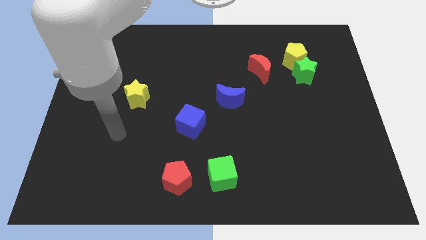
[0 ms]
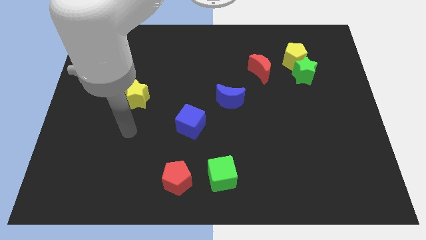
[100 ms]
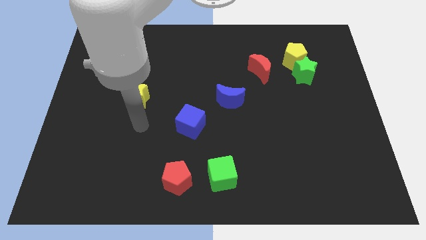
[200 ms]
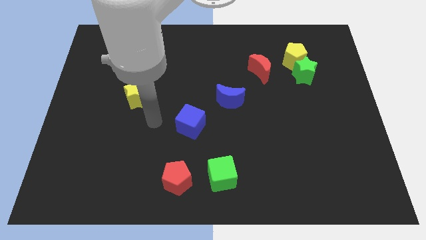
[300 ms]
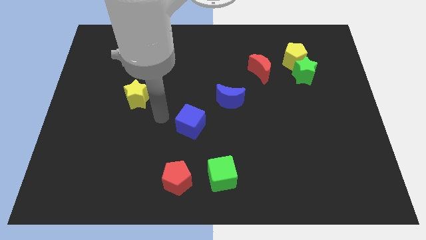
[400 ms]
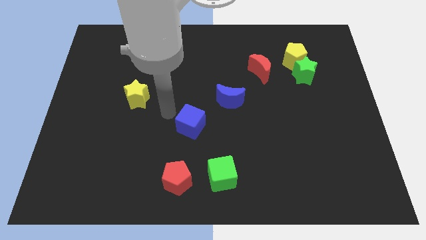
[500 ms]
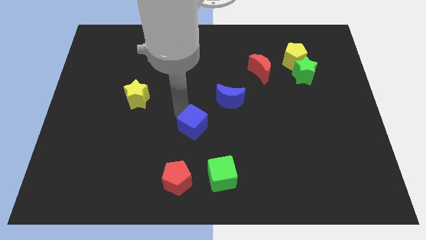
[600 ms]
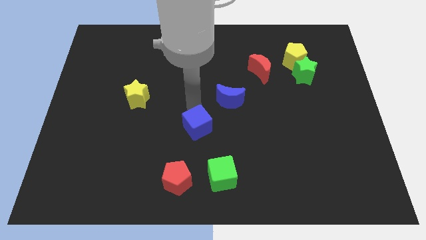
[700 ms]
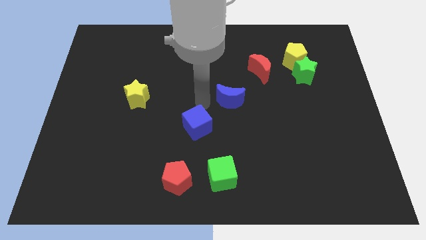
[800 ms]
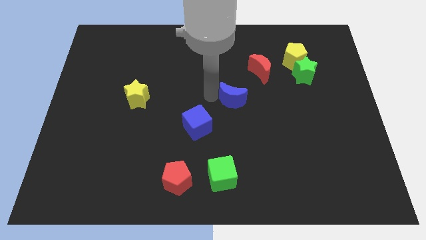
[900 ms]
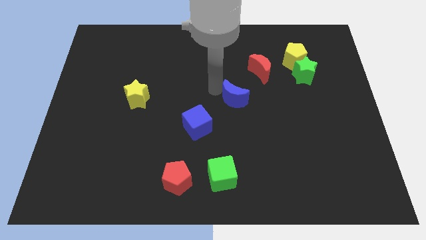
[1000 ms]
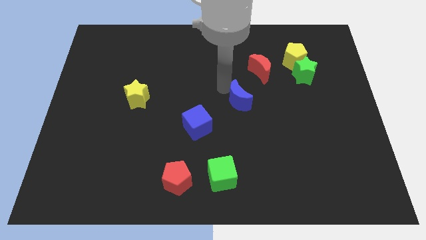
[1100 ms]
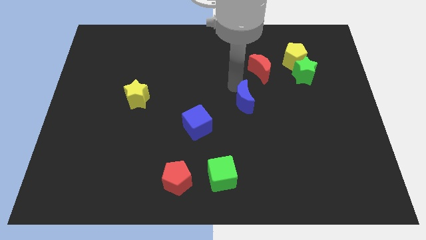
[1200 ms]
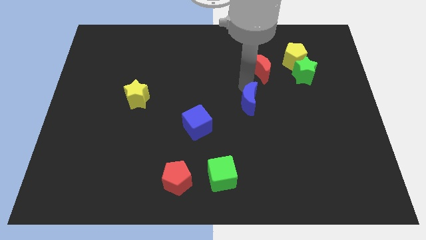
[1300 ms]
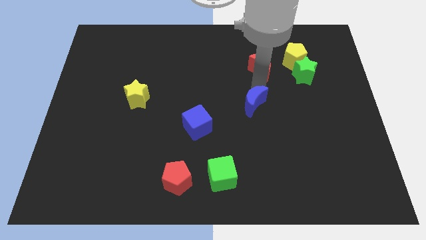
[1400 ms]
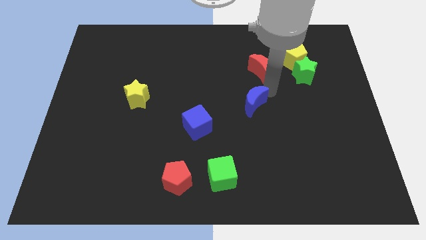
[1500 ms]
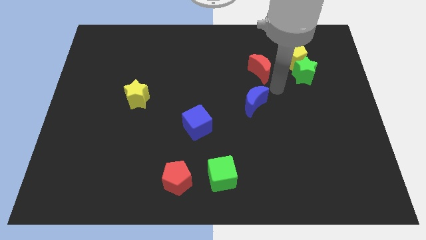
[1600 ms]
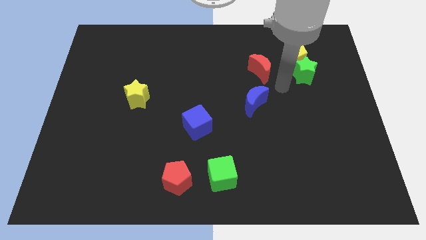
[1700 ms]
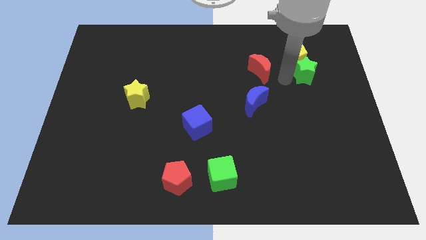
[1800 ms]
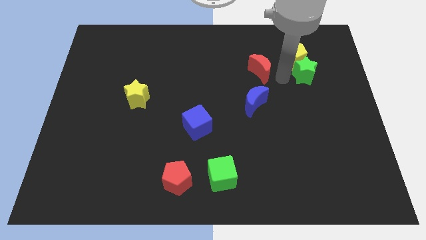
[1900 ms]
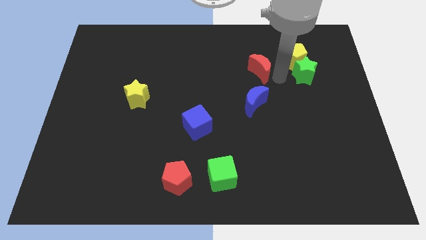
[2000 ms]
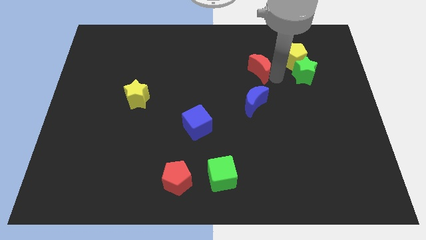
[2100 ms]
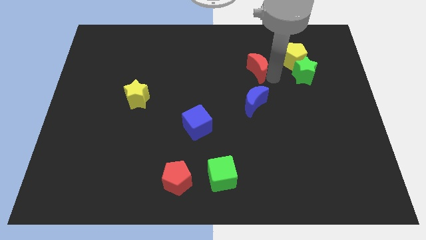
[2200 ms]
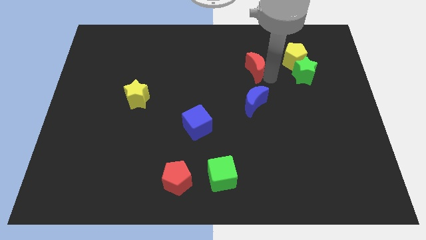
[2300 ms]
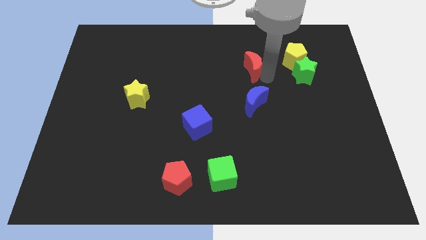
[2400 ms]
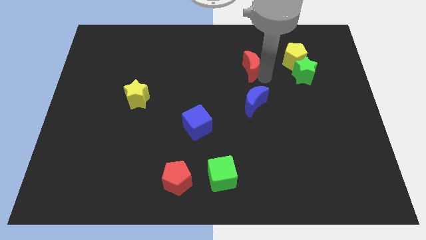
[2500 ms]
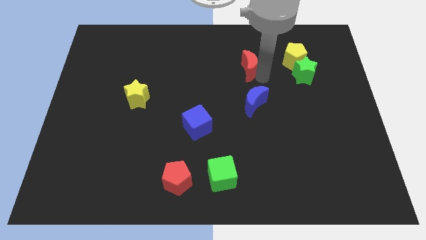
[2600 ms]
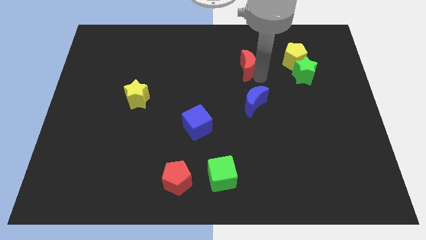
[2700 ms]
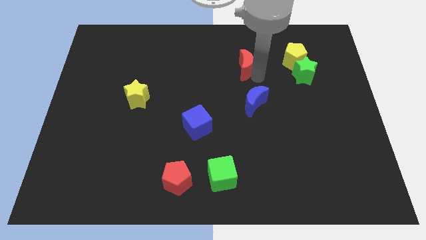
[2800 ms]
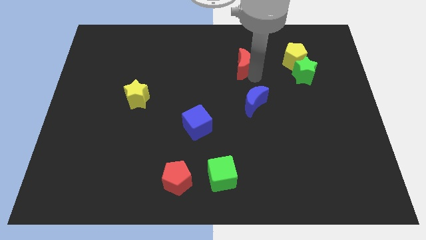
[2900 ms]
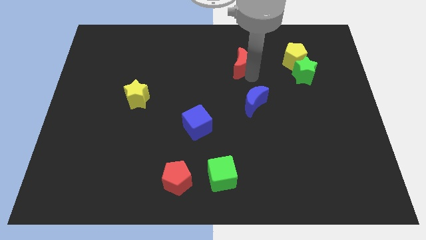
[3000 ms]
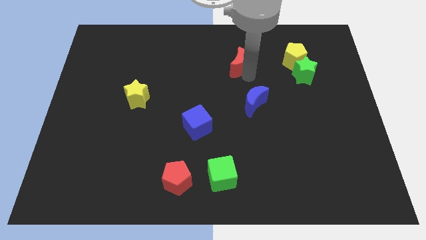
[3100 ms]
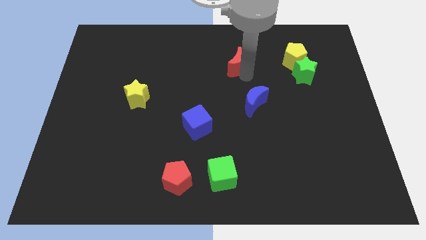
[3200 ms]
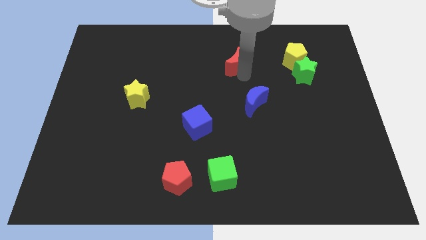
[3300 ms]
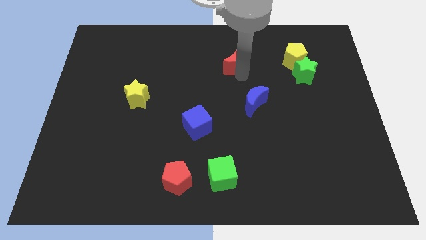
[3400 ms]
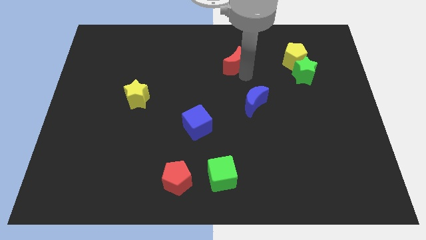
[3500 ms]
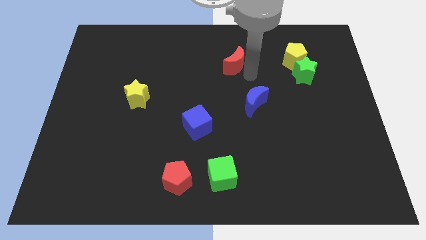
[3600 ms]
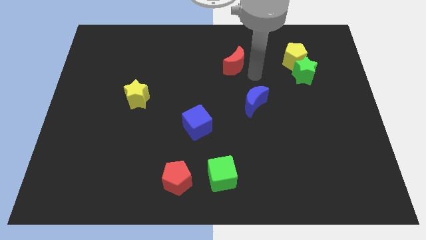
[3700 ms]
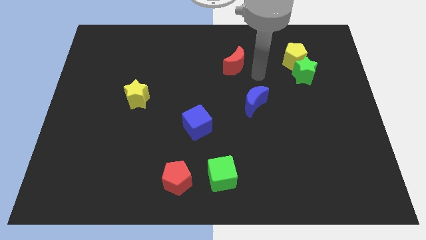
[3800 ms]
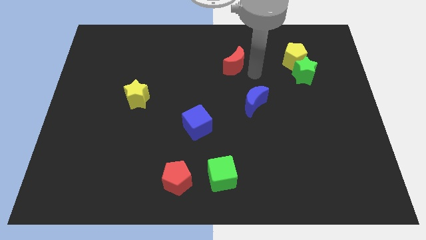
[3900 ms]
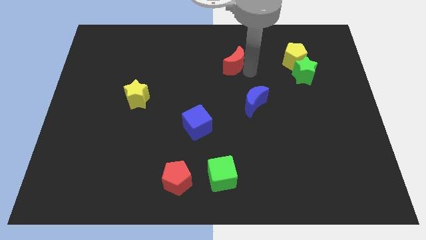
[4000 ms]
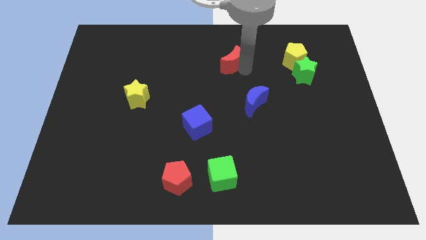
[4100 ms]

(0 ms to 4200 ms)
slightly slide the red moon to the left

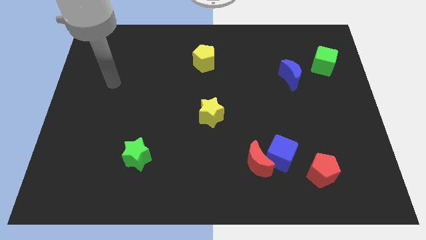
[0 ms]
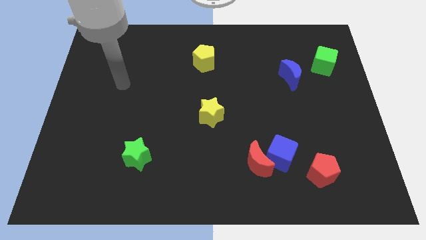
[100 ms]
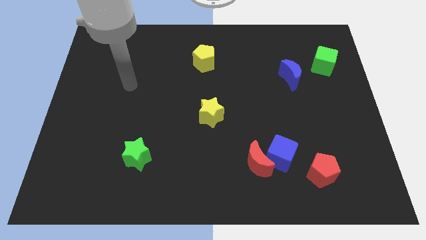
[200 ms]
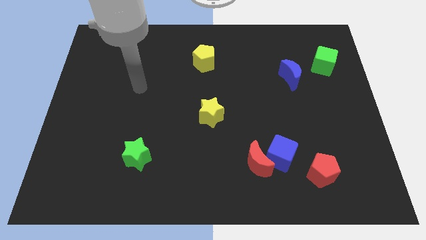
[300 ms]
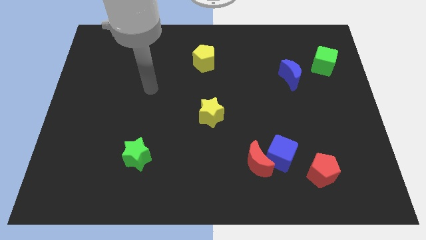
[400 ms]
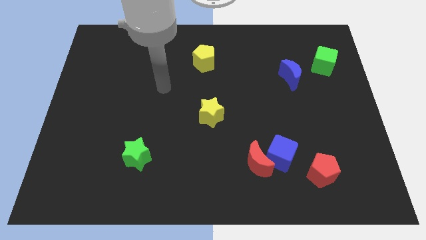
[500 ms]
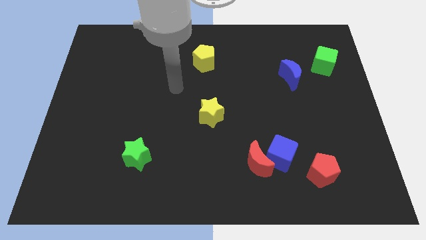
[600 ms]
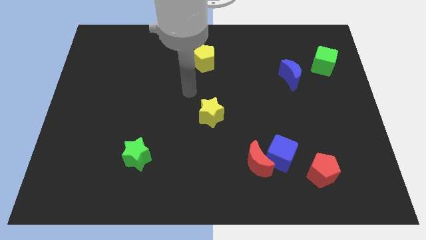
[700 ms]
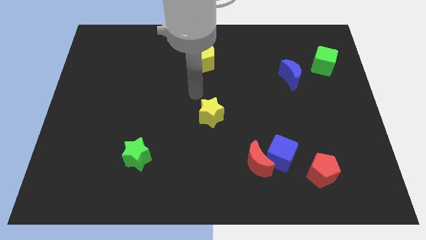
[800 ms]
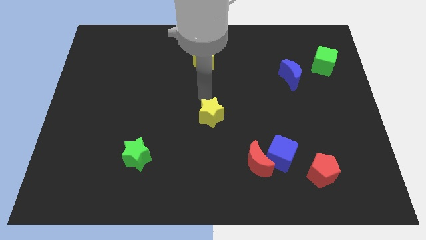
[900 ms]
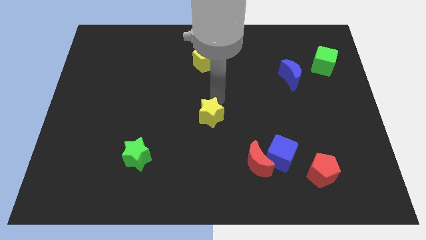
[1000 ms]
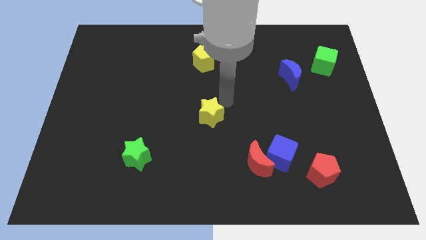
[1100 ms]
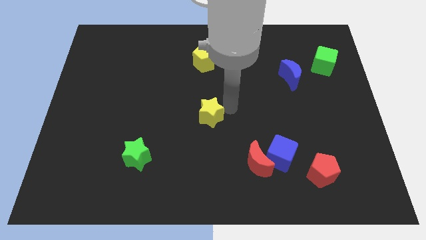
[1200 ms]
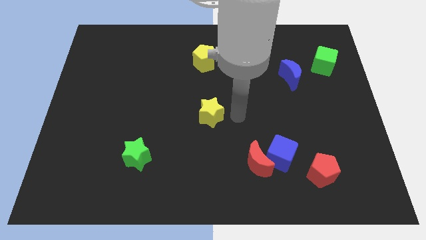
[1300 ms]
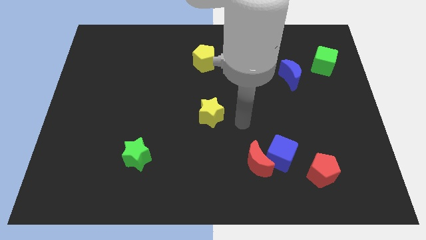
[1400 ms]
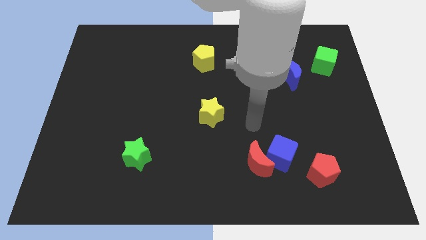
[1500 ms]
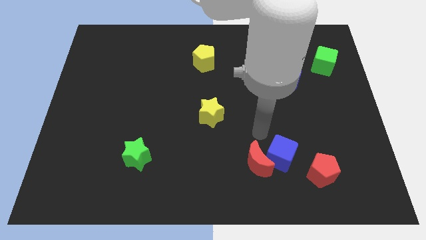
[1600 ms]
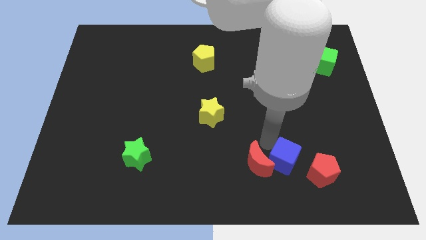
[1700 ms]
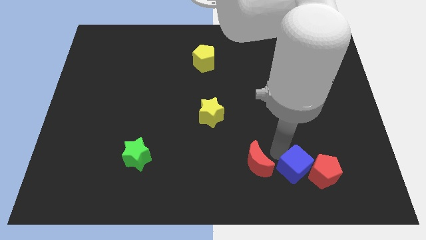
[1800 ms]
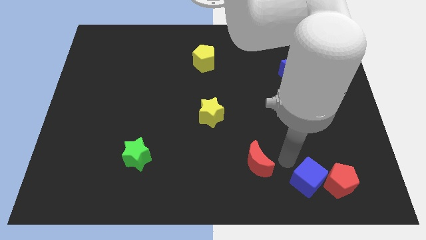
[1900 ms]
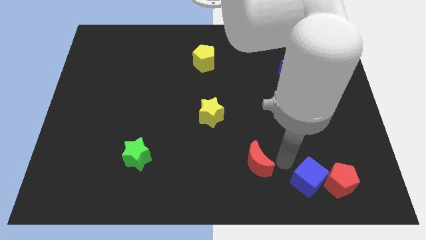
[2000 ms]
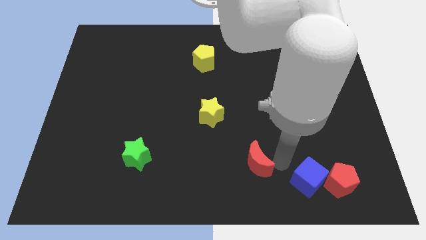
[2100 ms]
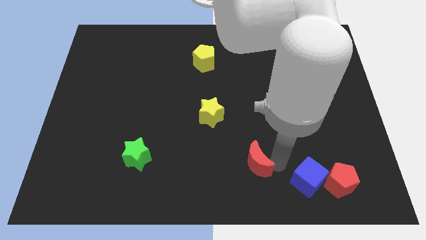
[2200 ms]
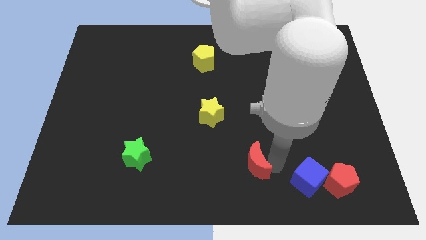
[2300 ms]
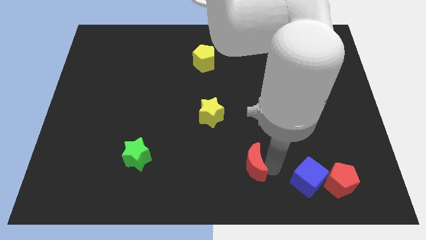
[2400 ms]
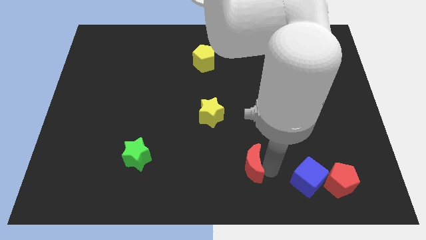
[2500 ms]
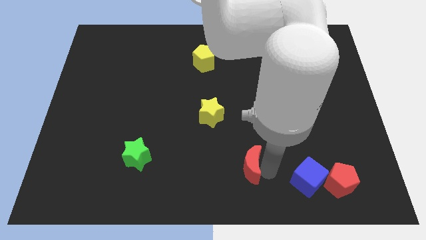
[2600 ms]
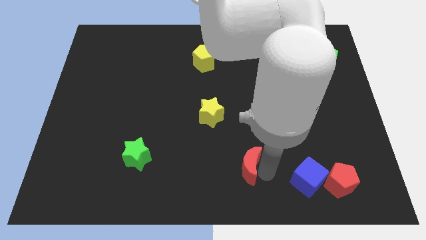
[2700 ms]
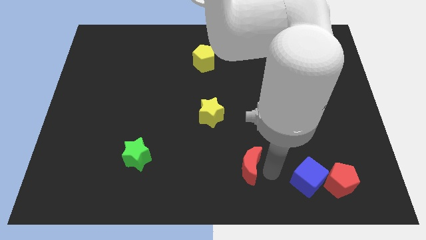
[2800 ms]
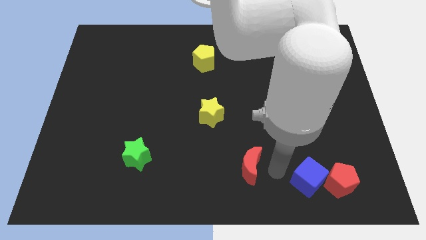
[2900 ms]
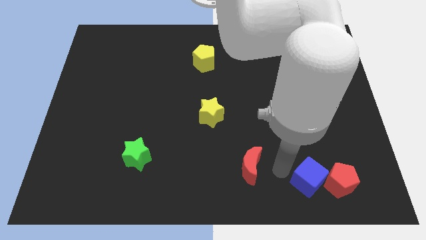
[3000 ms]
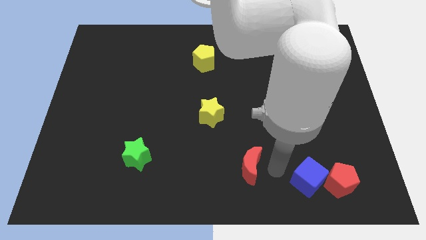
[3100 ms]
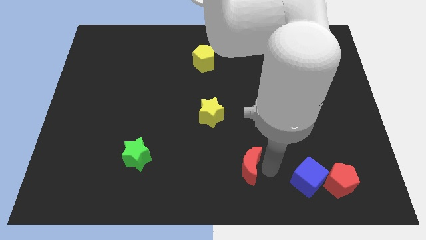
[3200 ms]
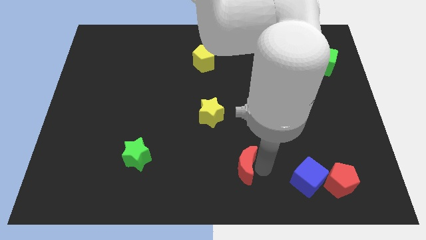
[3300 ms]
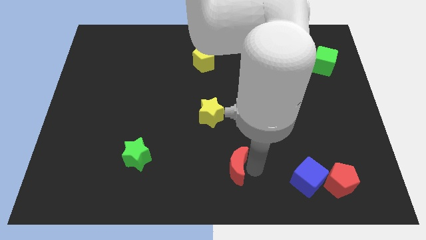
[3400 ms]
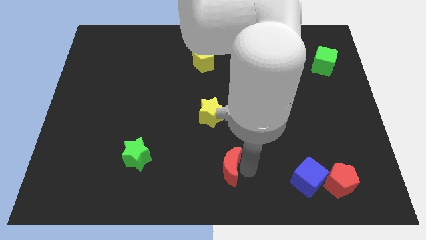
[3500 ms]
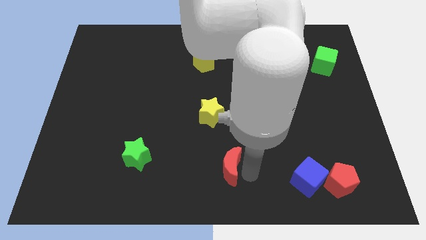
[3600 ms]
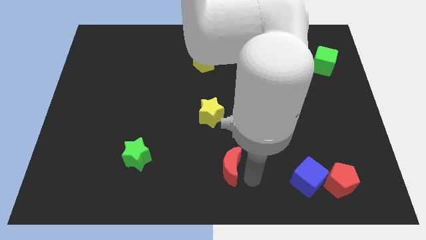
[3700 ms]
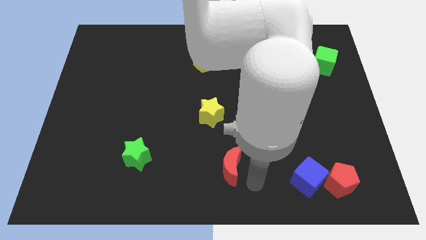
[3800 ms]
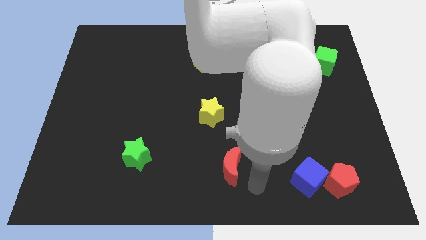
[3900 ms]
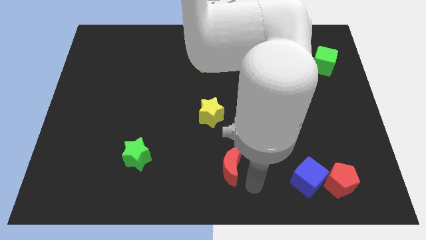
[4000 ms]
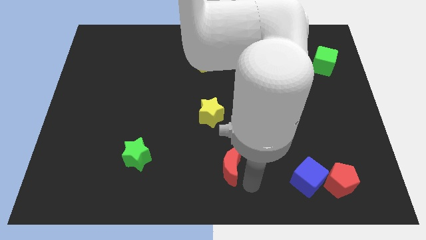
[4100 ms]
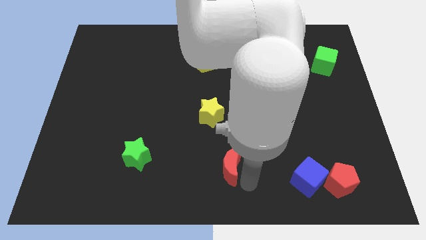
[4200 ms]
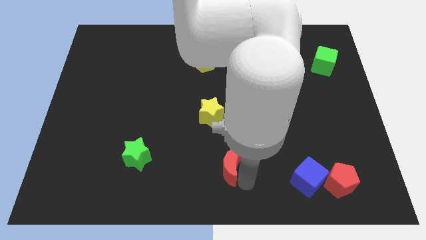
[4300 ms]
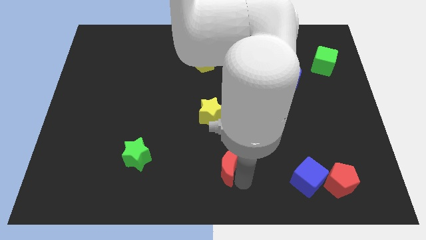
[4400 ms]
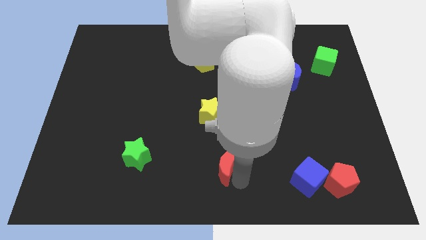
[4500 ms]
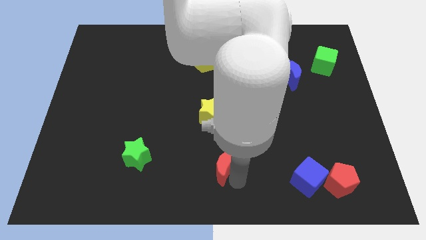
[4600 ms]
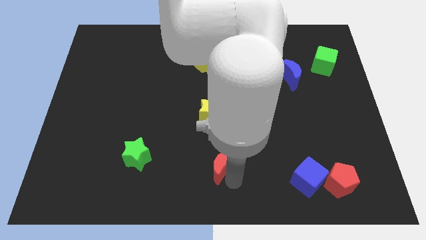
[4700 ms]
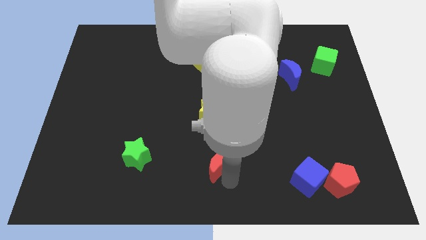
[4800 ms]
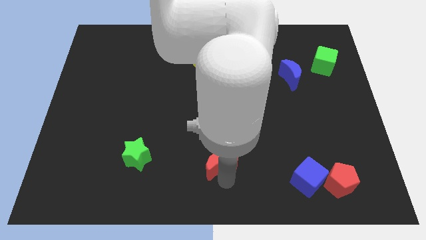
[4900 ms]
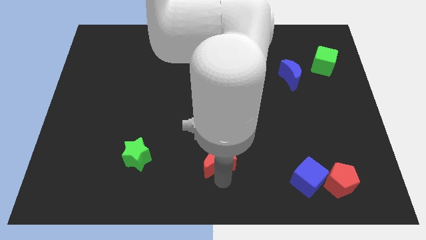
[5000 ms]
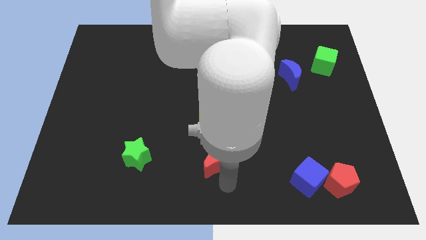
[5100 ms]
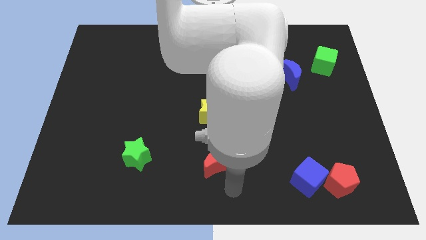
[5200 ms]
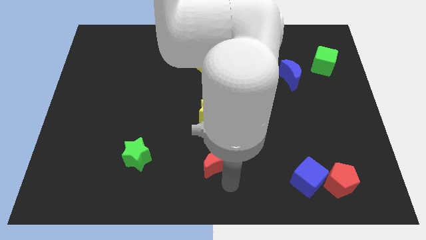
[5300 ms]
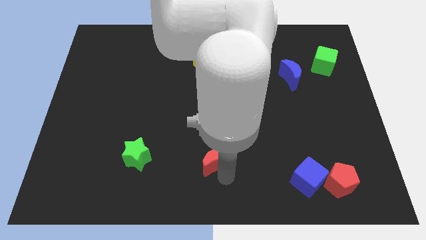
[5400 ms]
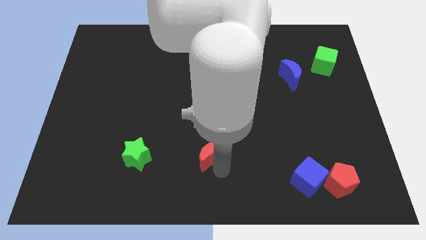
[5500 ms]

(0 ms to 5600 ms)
move the red moon upwards and to the left diagonally somewhat
